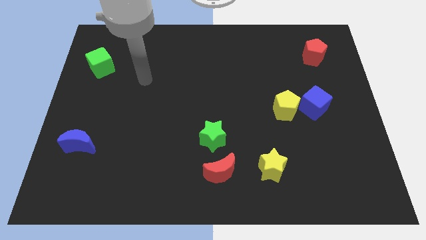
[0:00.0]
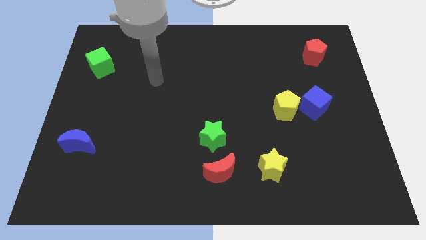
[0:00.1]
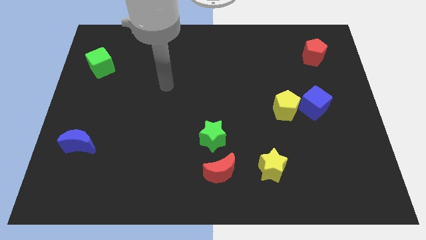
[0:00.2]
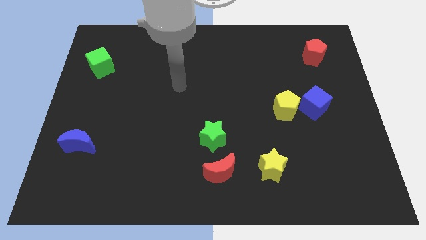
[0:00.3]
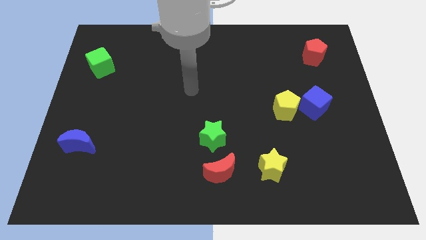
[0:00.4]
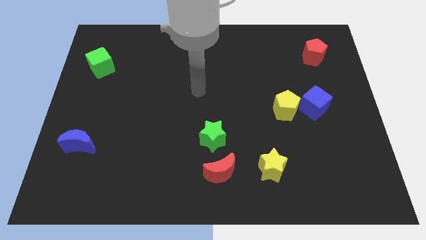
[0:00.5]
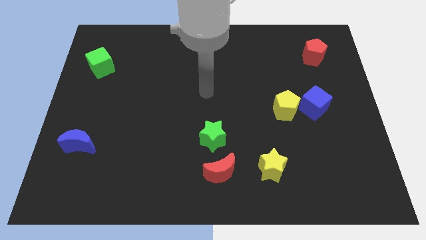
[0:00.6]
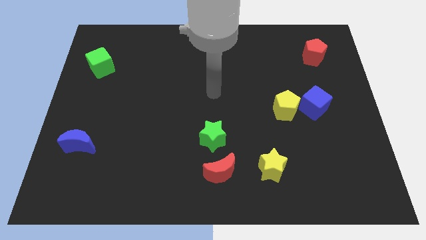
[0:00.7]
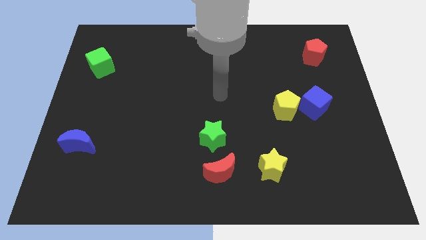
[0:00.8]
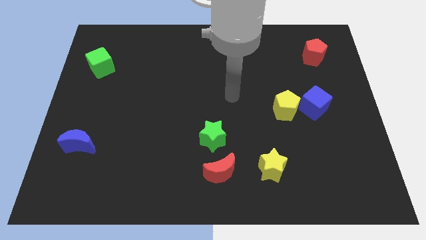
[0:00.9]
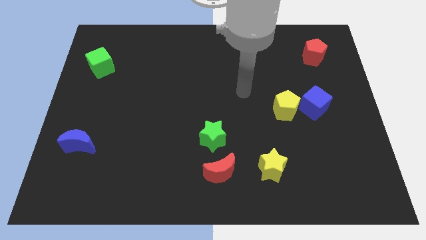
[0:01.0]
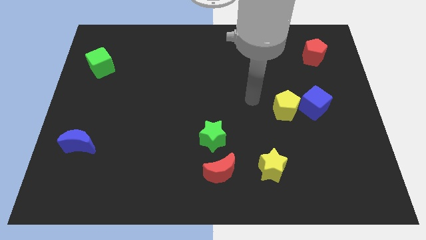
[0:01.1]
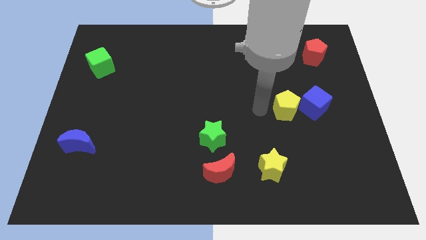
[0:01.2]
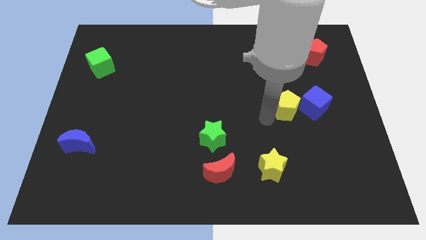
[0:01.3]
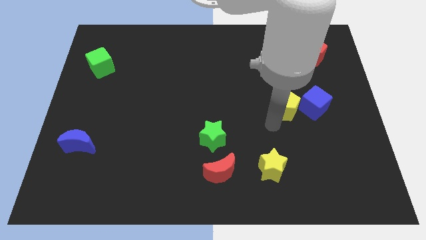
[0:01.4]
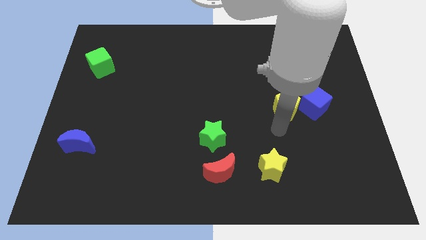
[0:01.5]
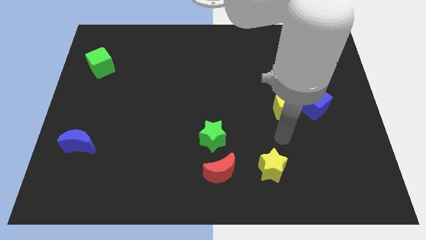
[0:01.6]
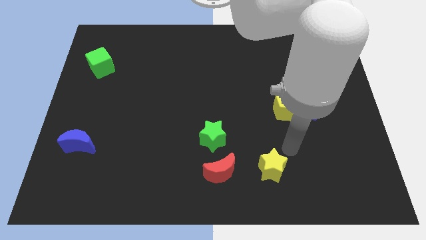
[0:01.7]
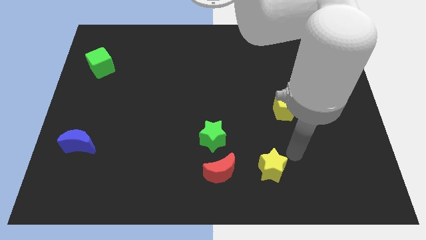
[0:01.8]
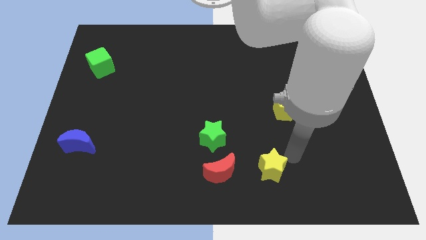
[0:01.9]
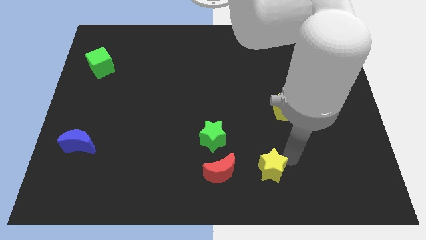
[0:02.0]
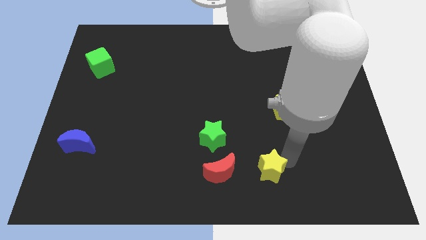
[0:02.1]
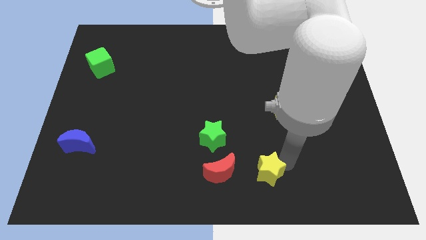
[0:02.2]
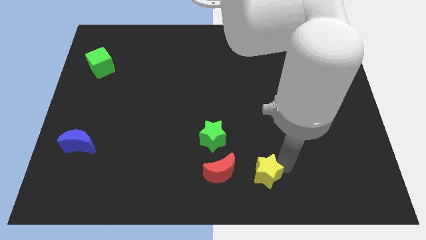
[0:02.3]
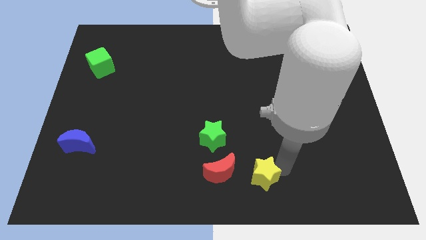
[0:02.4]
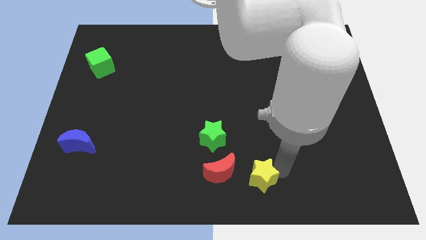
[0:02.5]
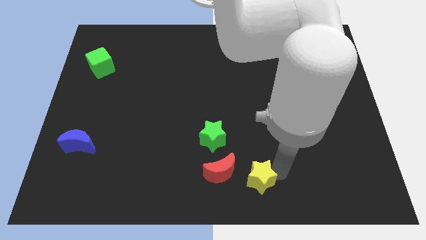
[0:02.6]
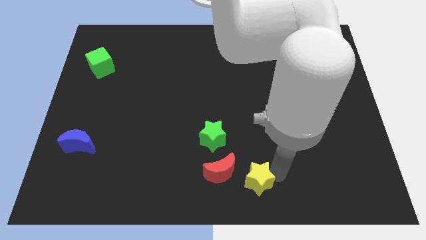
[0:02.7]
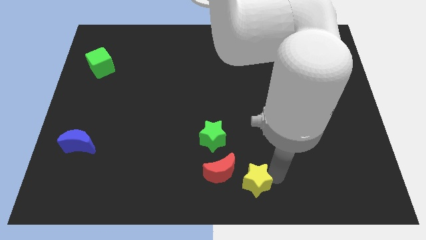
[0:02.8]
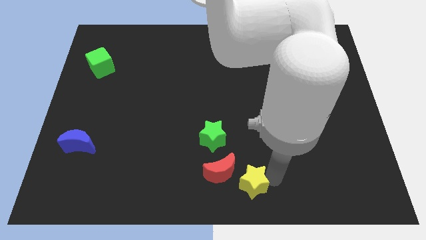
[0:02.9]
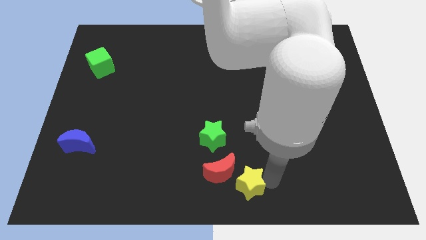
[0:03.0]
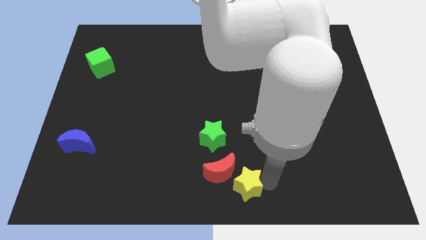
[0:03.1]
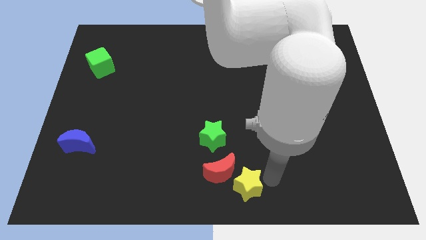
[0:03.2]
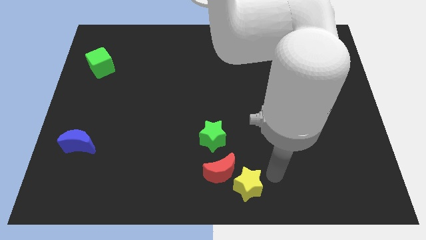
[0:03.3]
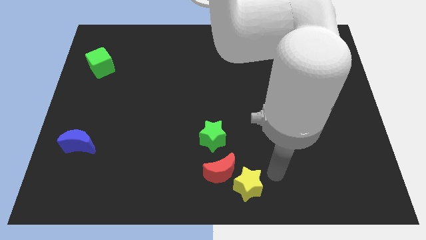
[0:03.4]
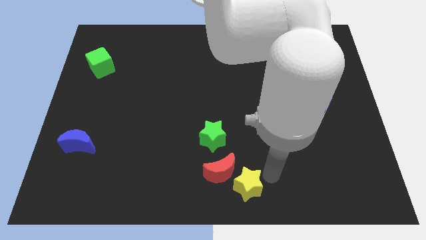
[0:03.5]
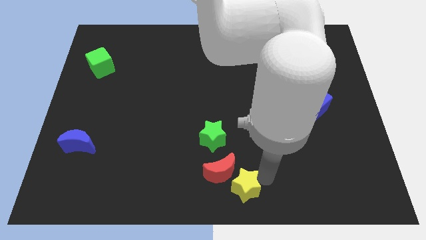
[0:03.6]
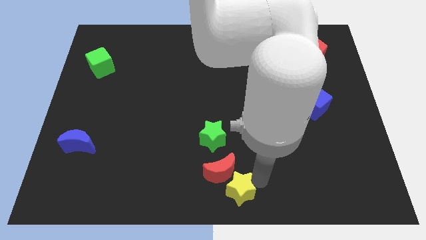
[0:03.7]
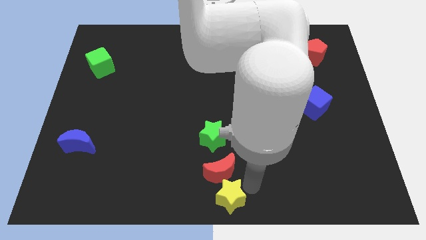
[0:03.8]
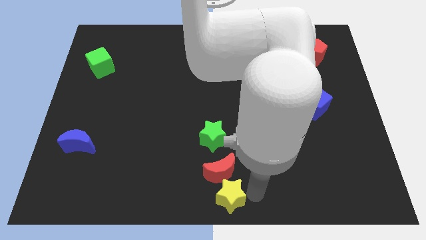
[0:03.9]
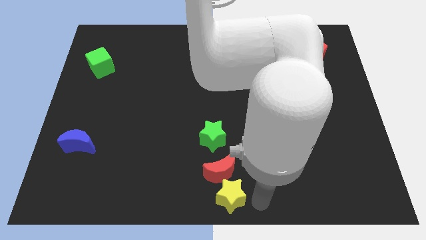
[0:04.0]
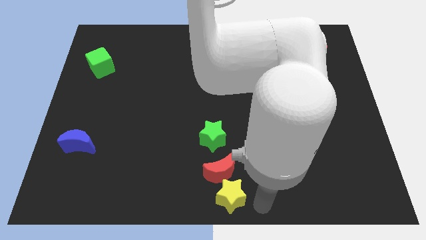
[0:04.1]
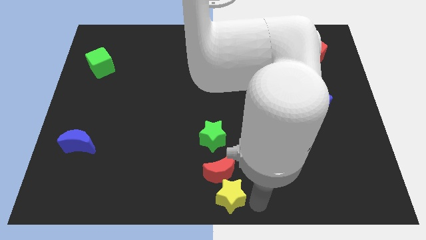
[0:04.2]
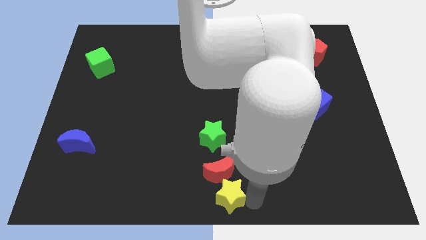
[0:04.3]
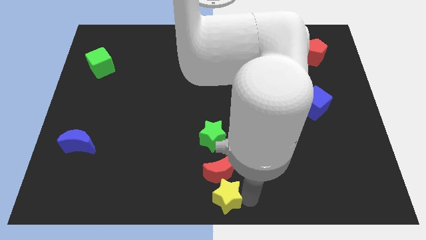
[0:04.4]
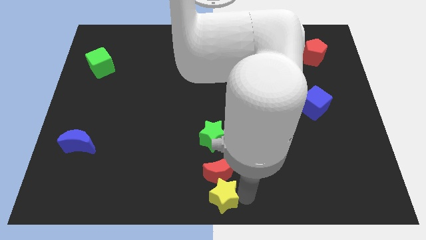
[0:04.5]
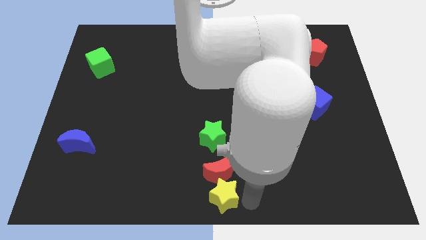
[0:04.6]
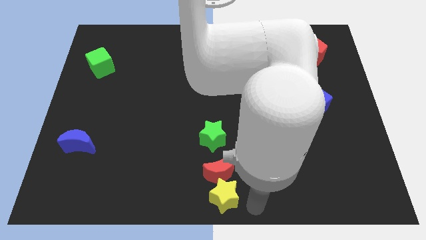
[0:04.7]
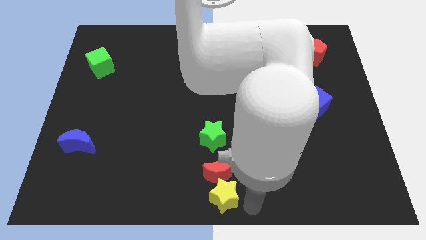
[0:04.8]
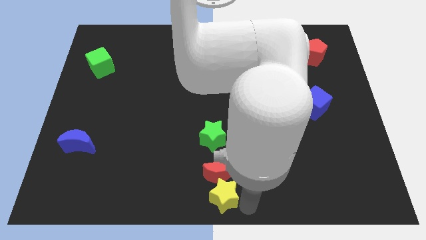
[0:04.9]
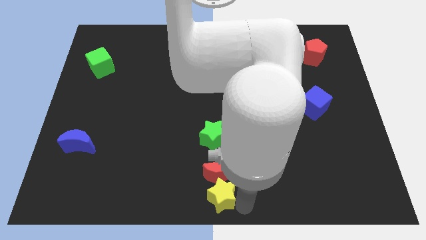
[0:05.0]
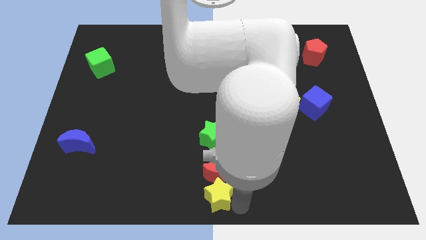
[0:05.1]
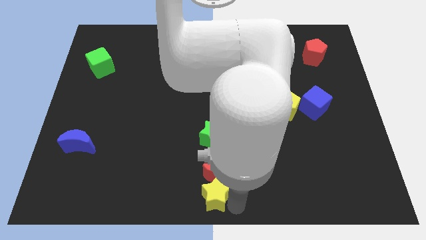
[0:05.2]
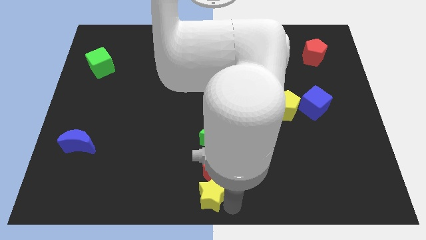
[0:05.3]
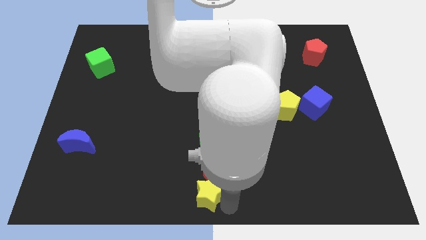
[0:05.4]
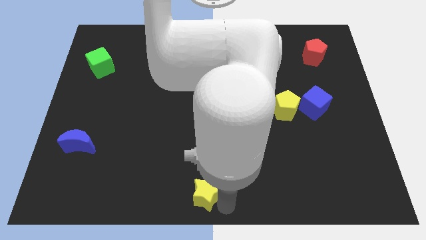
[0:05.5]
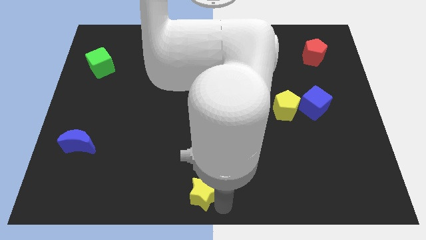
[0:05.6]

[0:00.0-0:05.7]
slide the yellow star to the left of the red moon

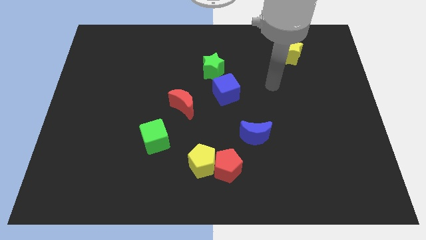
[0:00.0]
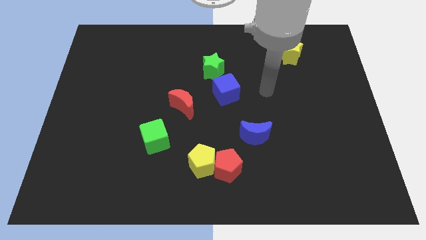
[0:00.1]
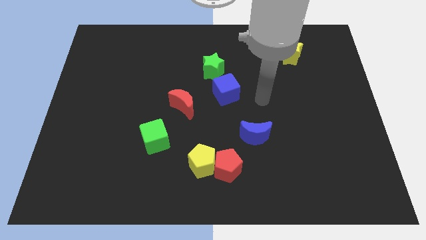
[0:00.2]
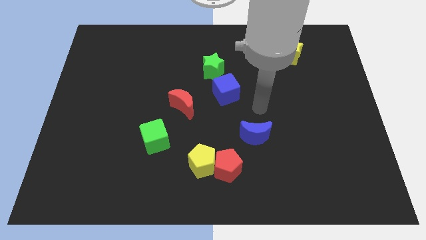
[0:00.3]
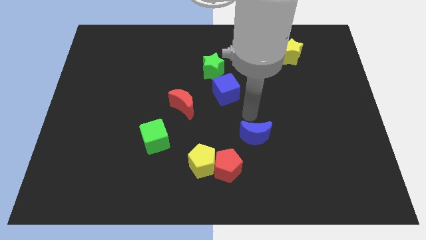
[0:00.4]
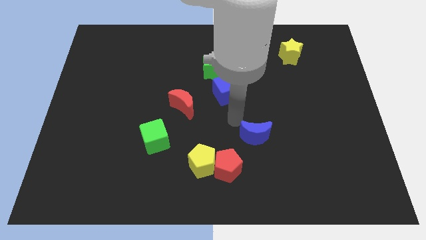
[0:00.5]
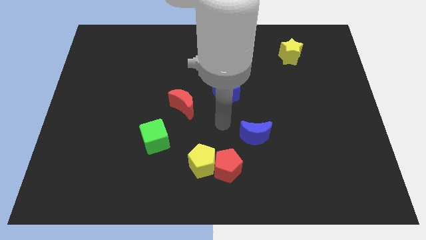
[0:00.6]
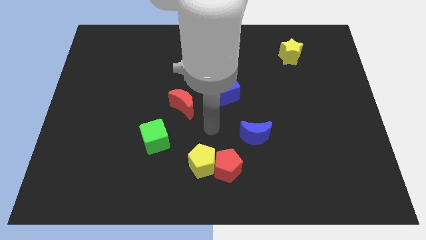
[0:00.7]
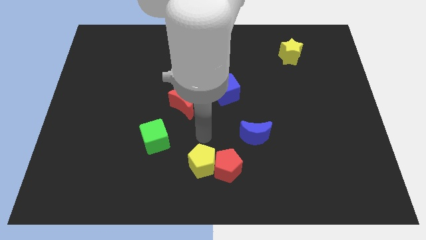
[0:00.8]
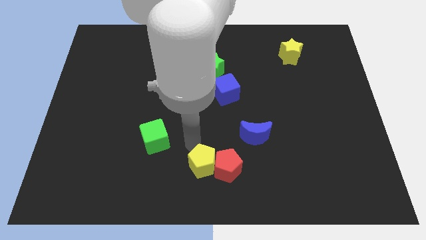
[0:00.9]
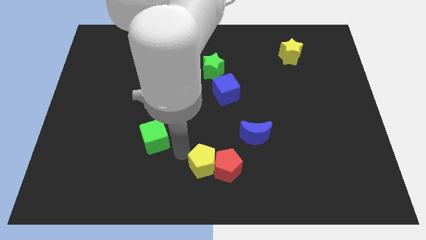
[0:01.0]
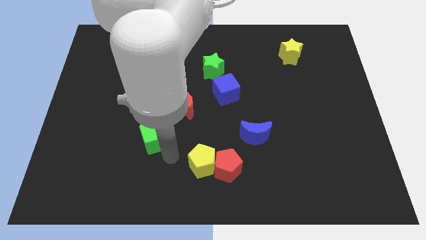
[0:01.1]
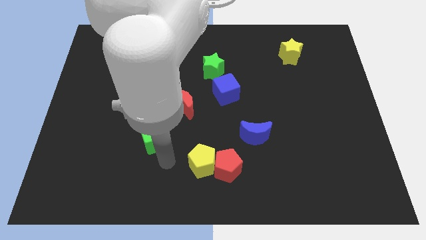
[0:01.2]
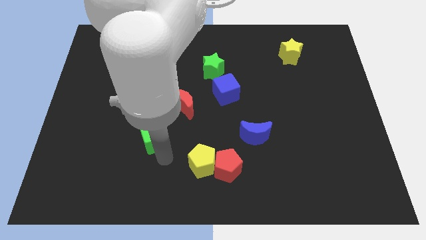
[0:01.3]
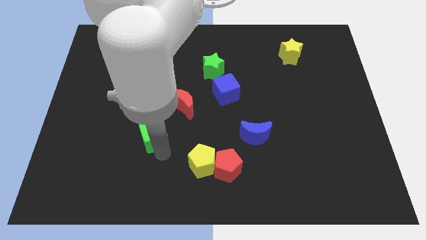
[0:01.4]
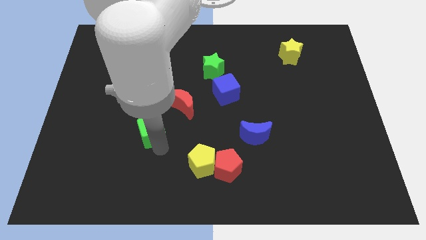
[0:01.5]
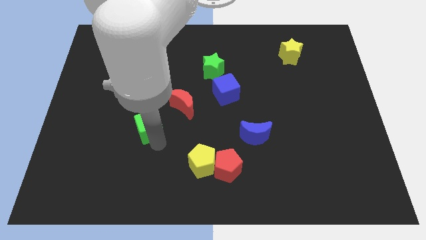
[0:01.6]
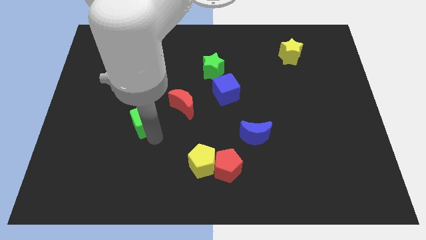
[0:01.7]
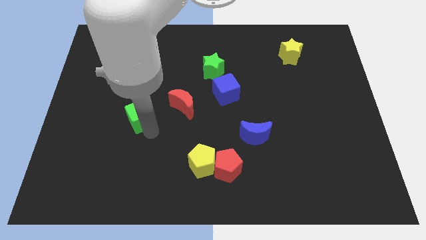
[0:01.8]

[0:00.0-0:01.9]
move the green cube just left of the red moon
